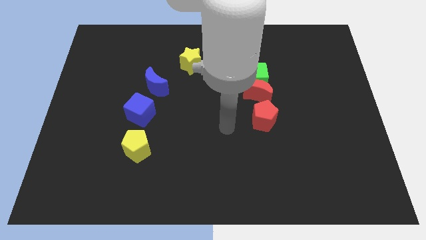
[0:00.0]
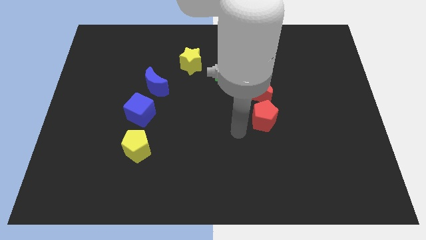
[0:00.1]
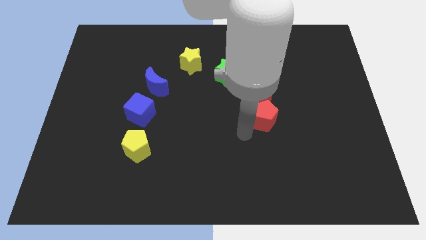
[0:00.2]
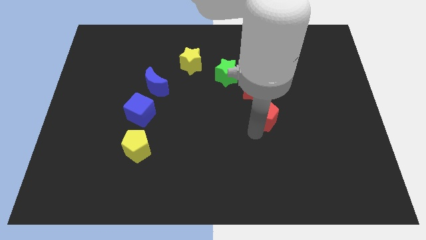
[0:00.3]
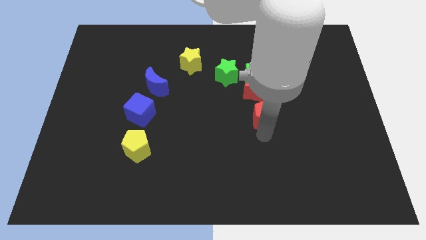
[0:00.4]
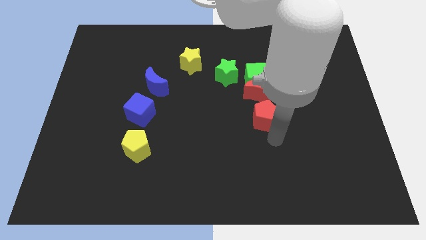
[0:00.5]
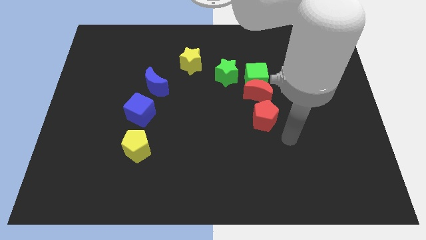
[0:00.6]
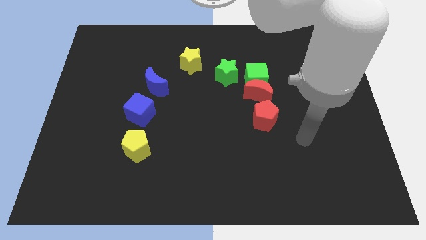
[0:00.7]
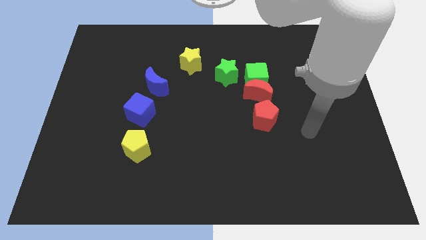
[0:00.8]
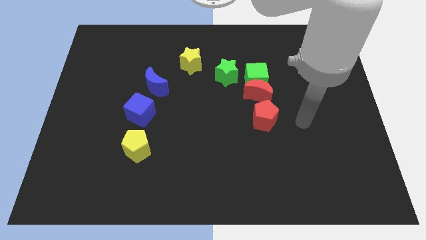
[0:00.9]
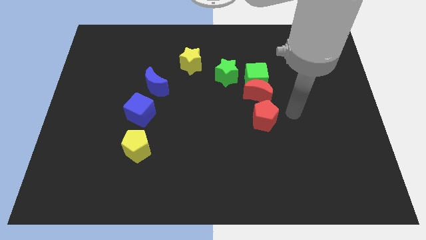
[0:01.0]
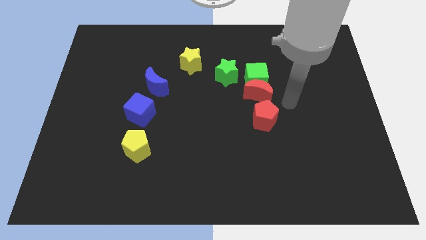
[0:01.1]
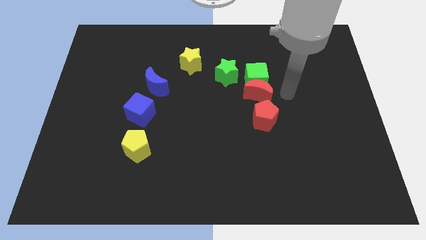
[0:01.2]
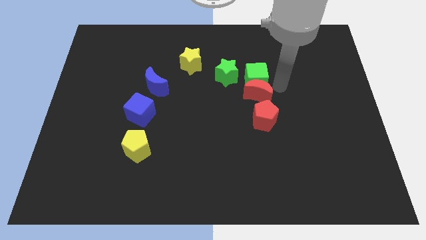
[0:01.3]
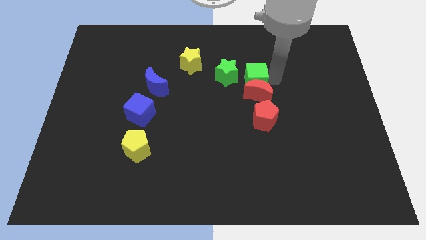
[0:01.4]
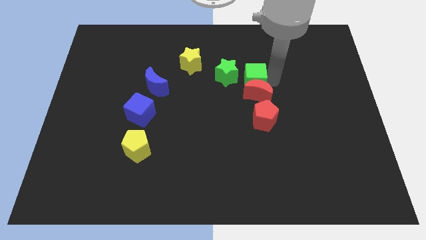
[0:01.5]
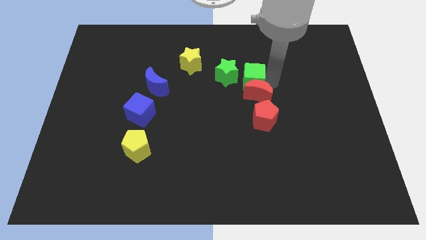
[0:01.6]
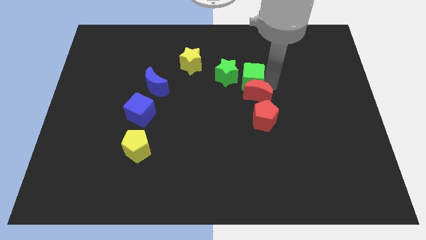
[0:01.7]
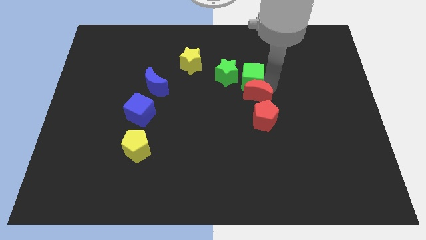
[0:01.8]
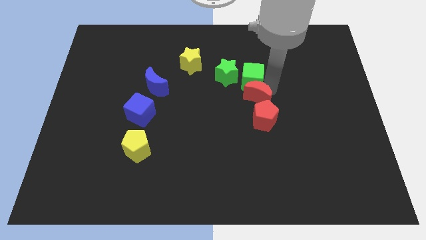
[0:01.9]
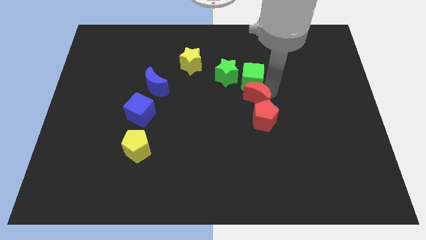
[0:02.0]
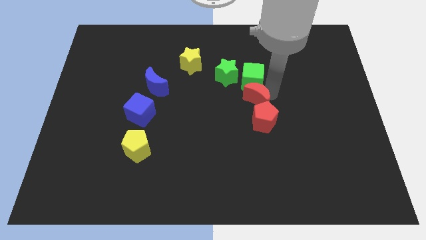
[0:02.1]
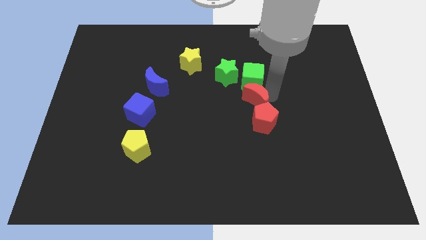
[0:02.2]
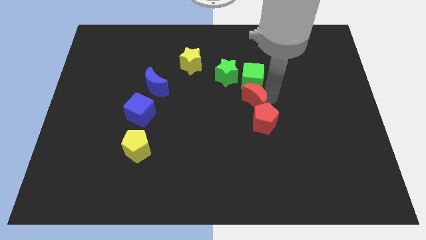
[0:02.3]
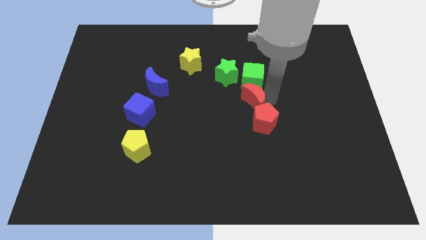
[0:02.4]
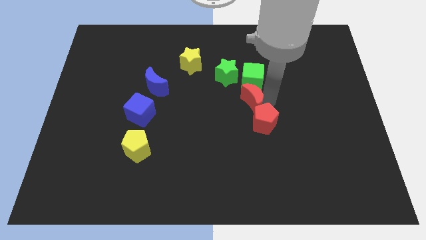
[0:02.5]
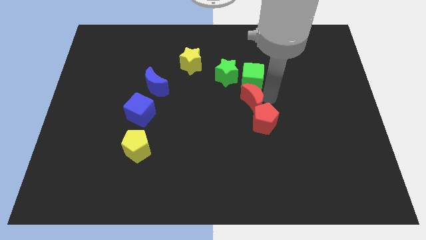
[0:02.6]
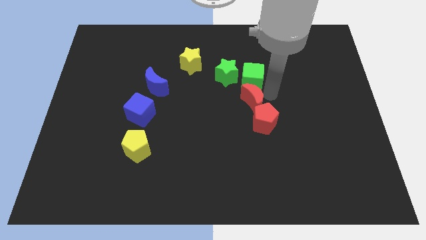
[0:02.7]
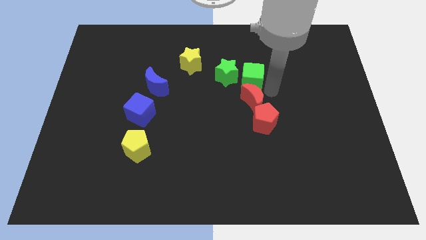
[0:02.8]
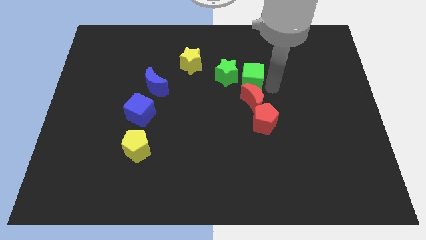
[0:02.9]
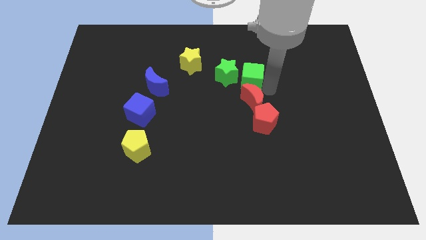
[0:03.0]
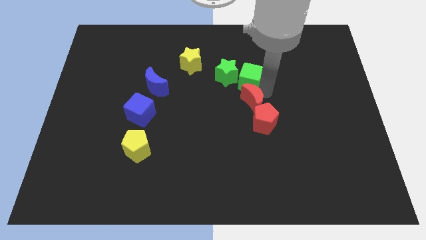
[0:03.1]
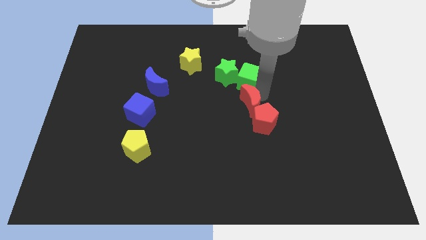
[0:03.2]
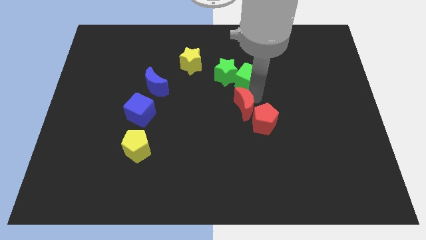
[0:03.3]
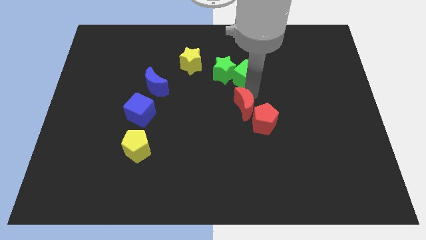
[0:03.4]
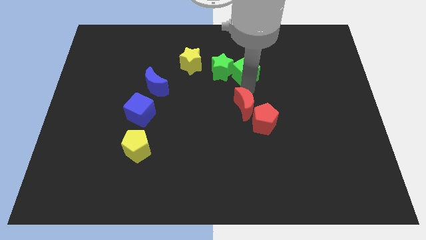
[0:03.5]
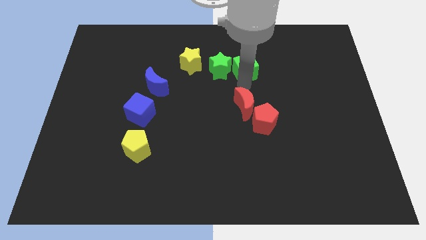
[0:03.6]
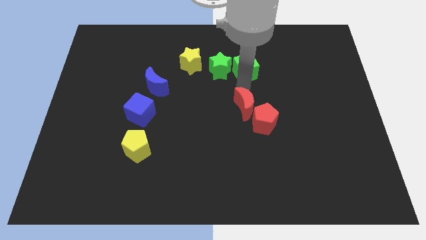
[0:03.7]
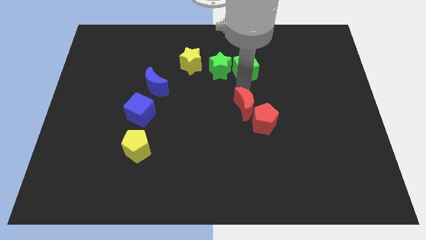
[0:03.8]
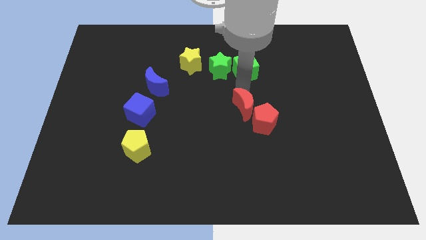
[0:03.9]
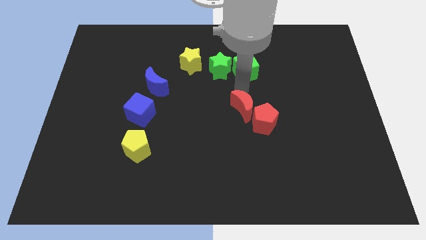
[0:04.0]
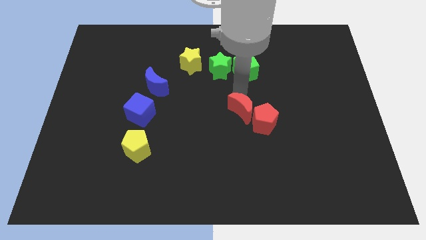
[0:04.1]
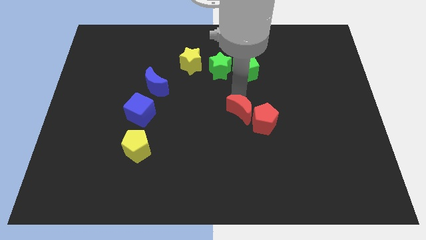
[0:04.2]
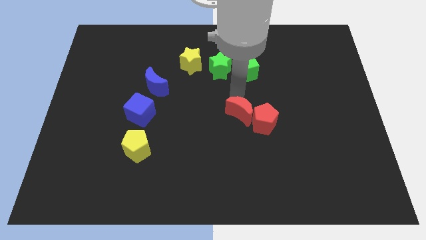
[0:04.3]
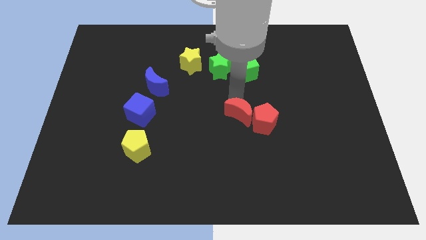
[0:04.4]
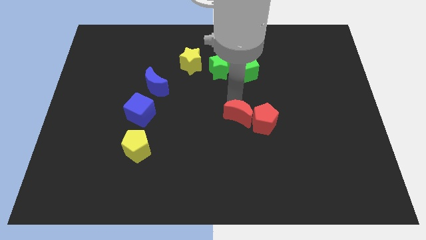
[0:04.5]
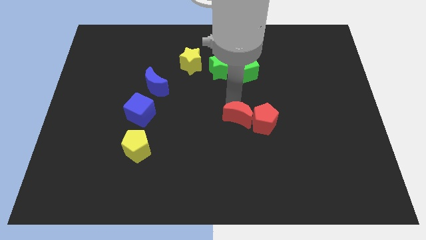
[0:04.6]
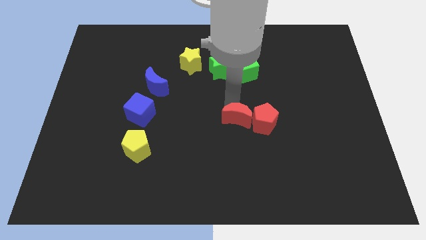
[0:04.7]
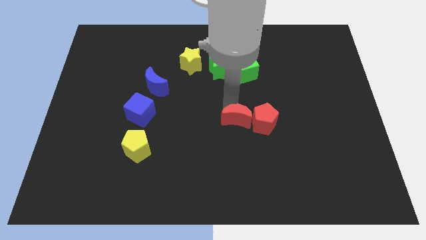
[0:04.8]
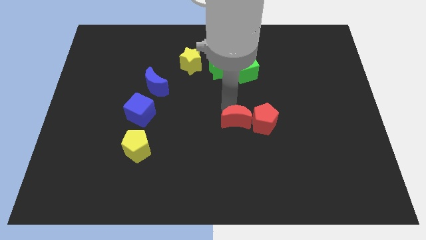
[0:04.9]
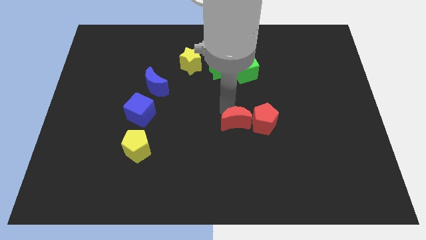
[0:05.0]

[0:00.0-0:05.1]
push the red moon downwards a bit

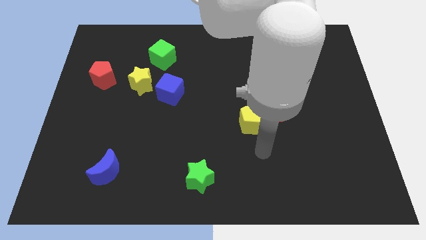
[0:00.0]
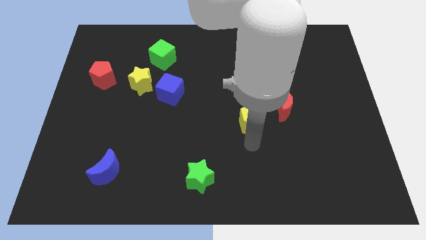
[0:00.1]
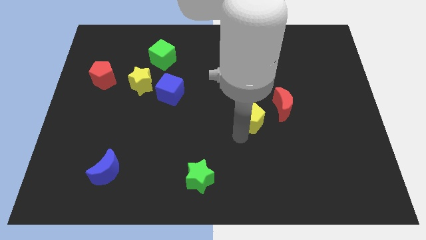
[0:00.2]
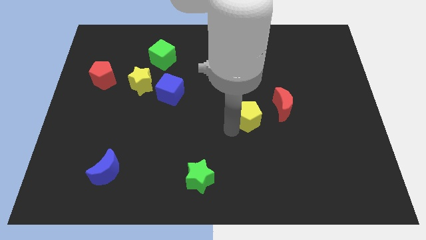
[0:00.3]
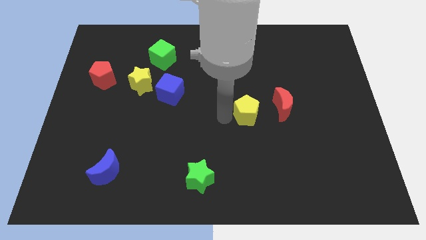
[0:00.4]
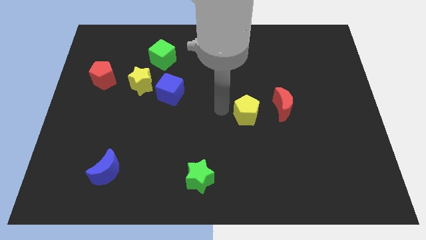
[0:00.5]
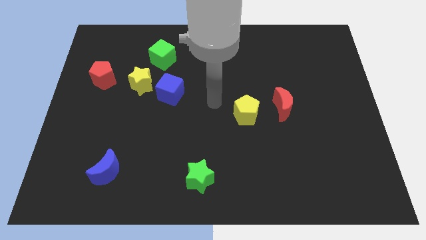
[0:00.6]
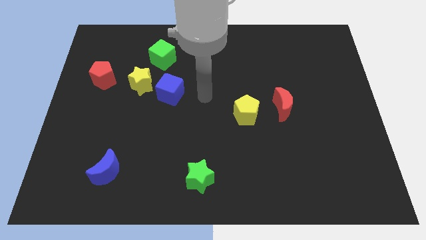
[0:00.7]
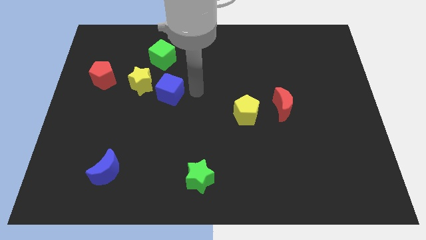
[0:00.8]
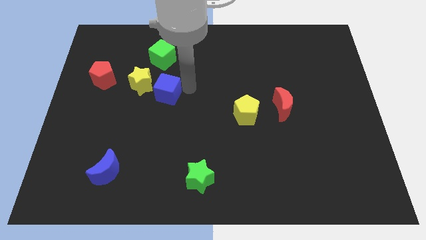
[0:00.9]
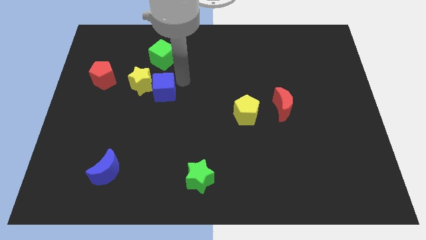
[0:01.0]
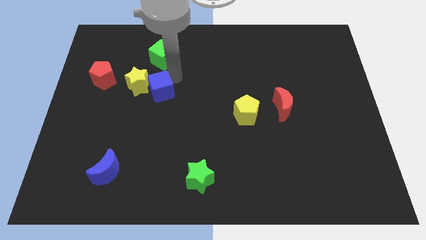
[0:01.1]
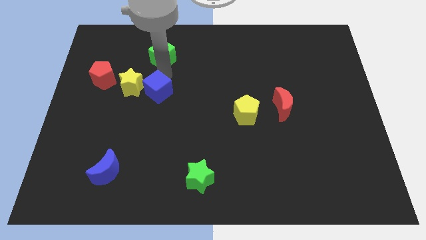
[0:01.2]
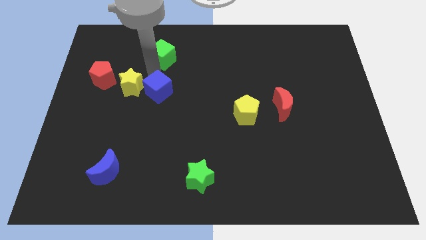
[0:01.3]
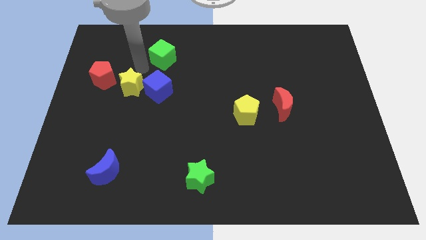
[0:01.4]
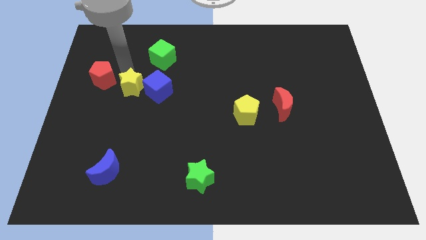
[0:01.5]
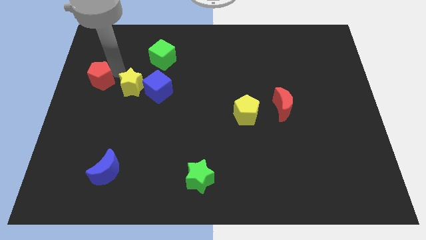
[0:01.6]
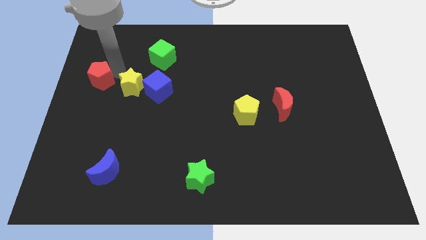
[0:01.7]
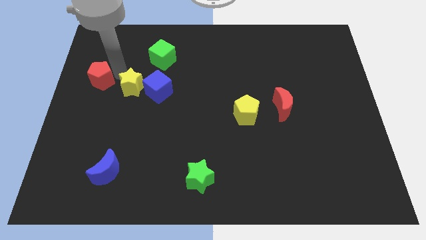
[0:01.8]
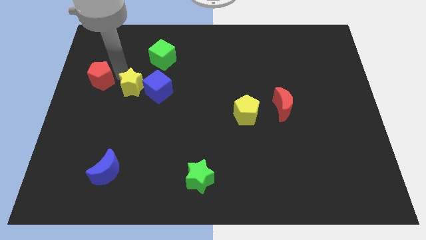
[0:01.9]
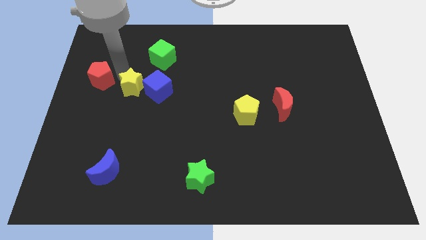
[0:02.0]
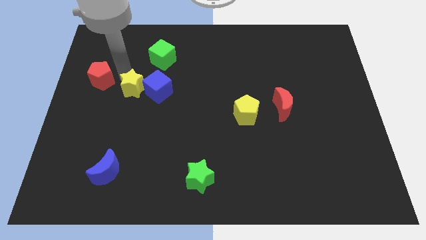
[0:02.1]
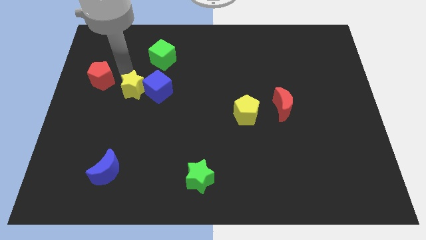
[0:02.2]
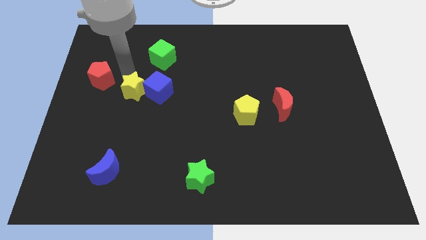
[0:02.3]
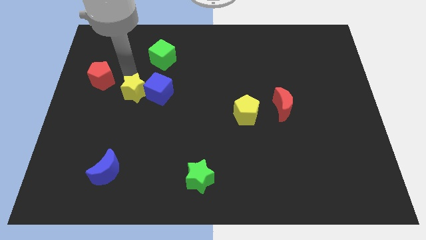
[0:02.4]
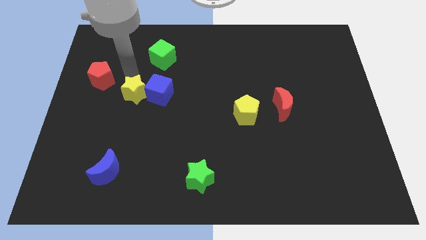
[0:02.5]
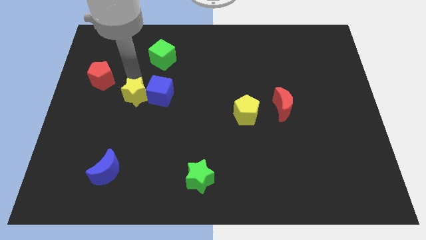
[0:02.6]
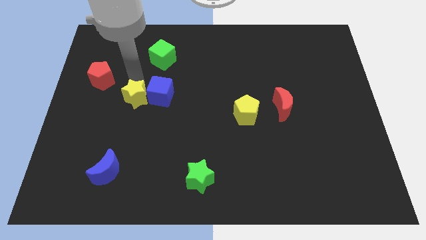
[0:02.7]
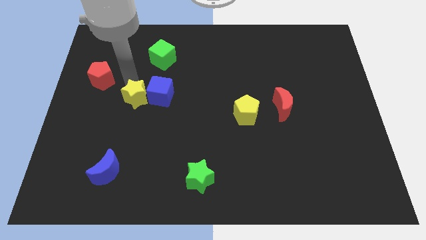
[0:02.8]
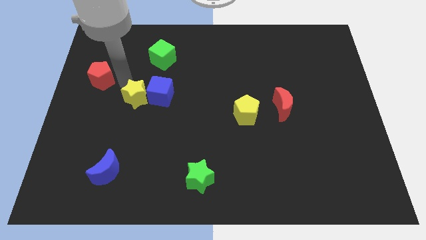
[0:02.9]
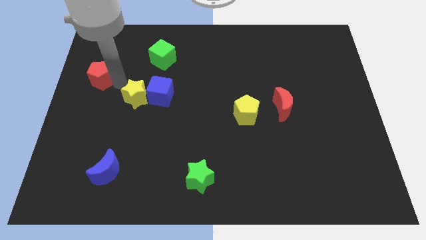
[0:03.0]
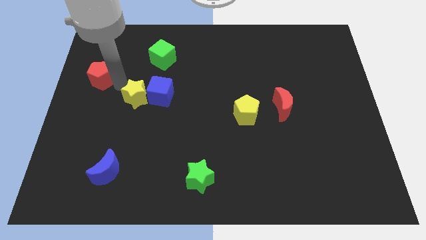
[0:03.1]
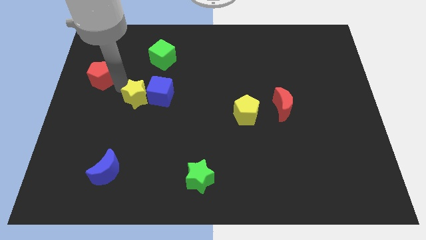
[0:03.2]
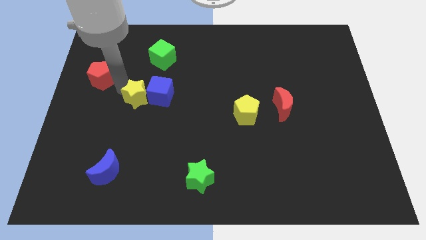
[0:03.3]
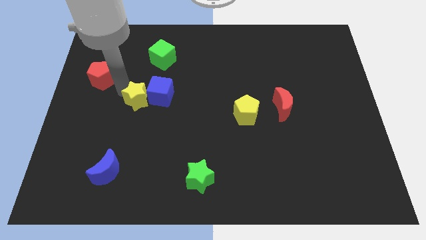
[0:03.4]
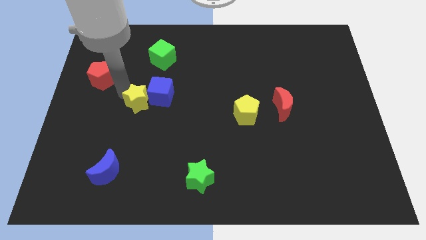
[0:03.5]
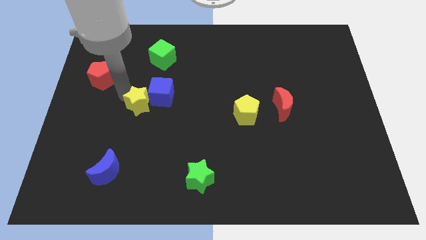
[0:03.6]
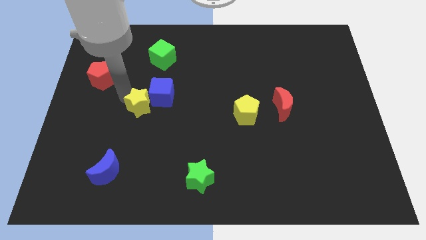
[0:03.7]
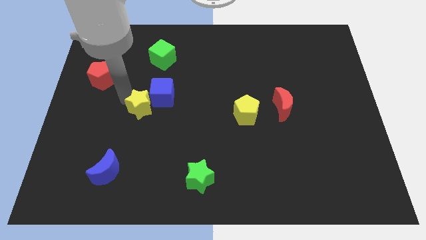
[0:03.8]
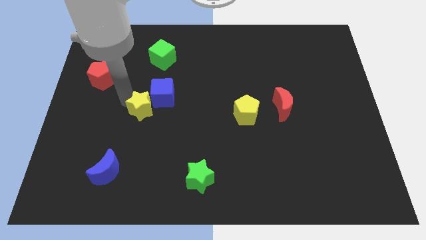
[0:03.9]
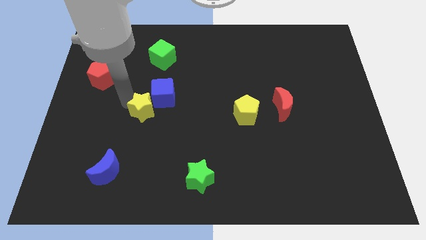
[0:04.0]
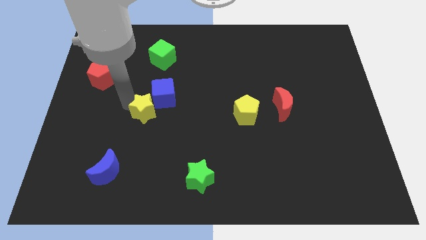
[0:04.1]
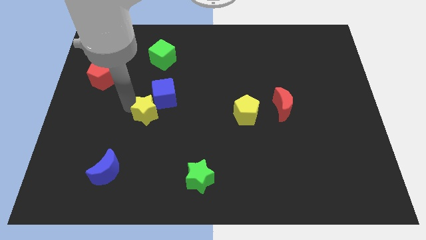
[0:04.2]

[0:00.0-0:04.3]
slide the yellow star slightly diagonally downwards and right
